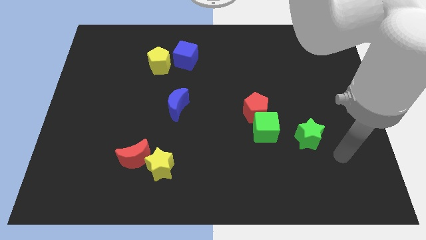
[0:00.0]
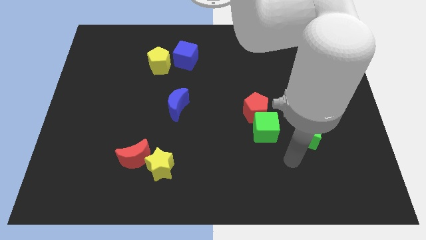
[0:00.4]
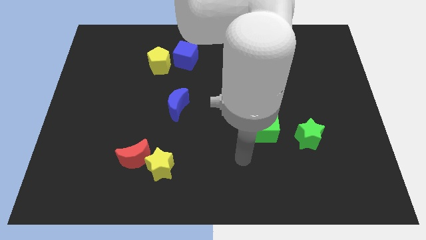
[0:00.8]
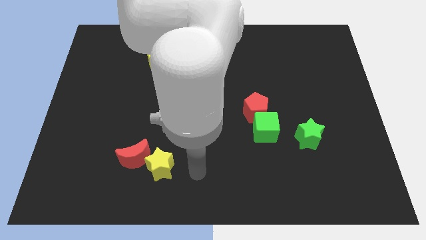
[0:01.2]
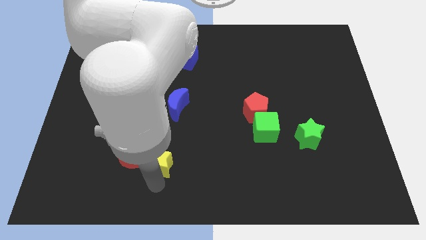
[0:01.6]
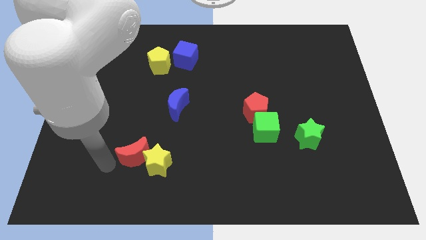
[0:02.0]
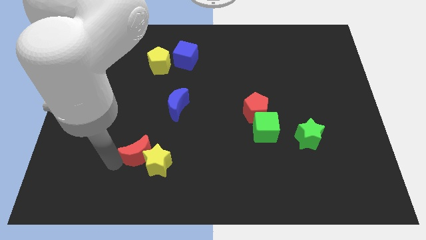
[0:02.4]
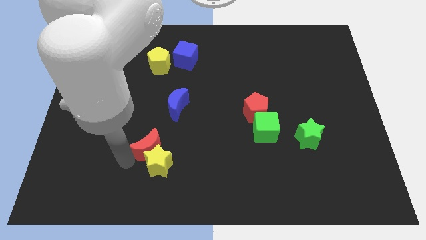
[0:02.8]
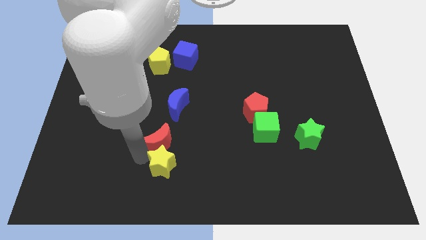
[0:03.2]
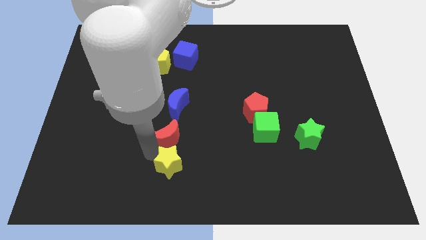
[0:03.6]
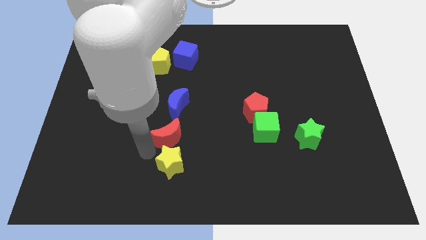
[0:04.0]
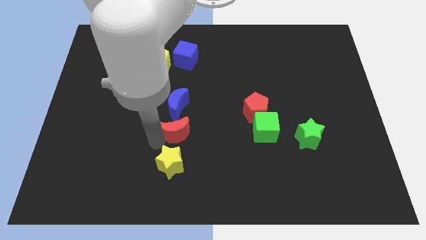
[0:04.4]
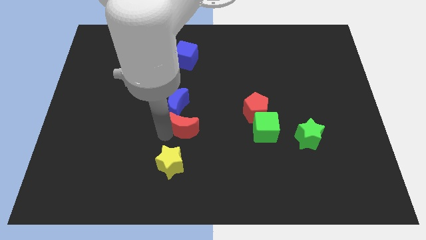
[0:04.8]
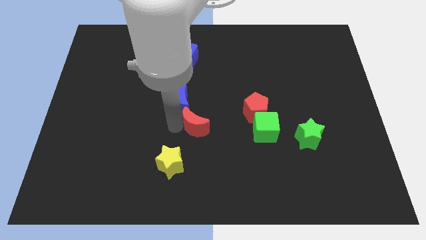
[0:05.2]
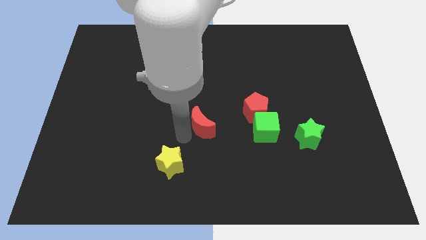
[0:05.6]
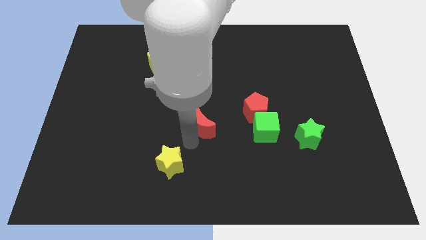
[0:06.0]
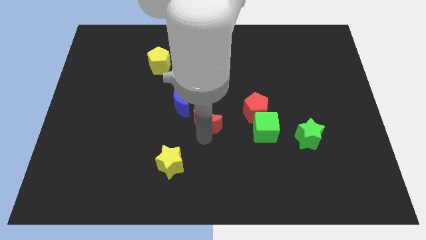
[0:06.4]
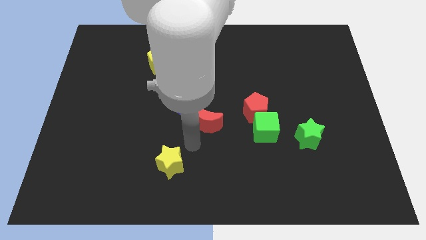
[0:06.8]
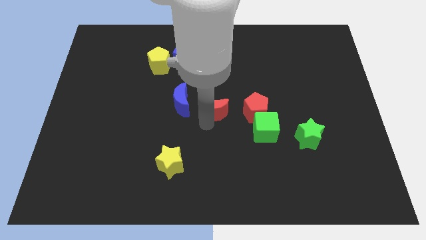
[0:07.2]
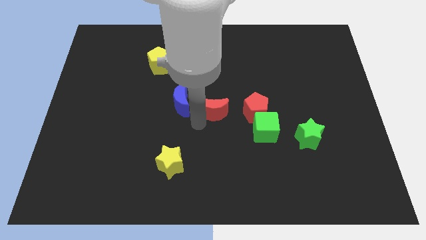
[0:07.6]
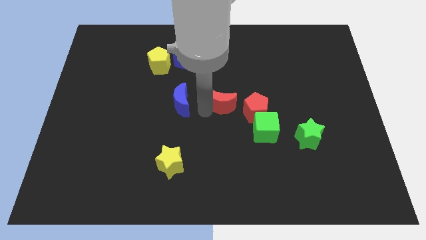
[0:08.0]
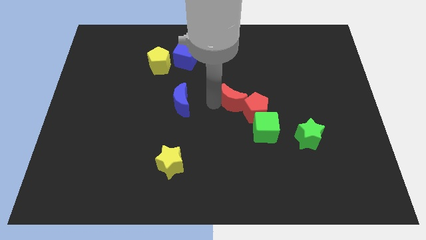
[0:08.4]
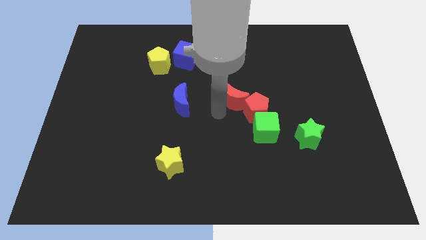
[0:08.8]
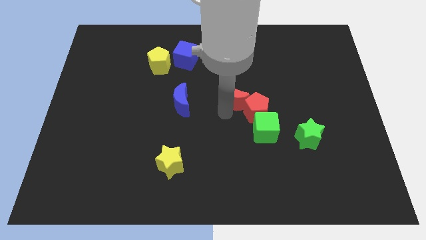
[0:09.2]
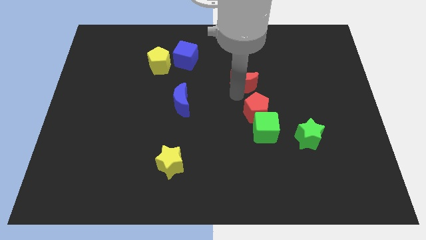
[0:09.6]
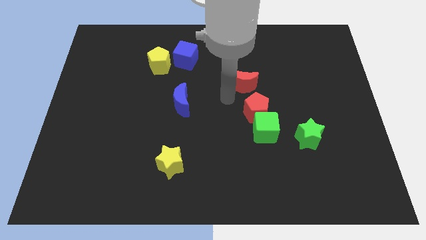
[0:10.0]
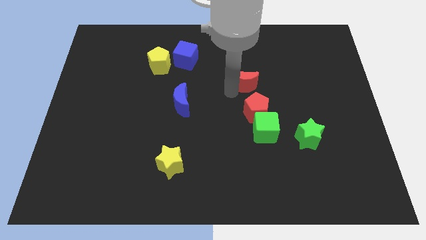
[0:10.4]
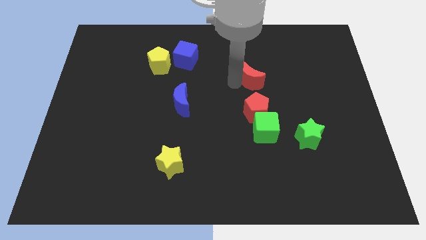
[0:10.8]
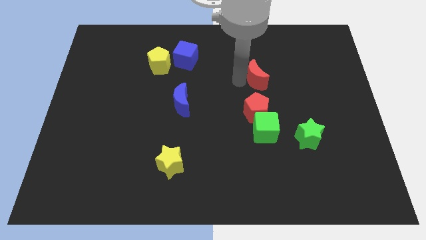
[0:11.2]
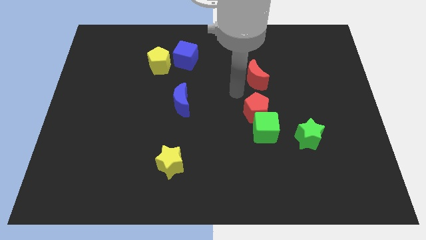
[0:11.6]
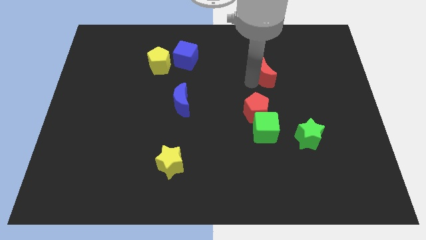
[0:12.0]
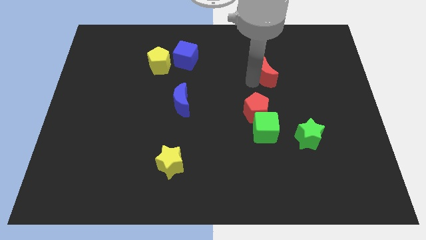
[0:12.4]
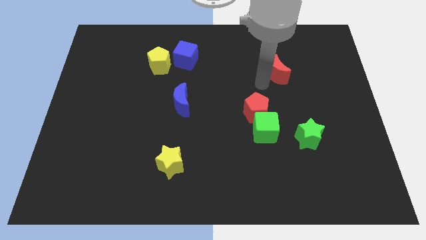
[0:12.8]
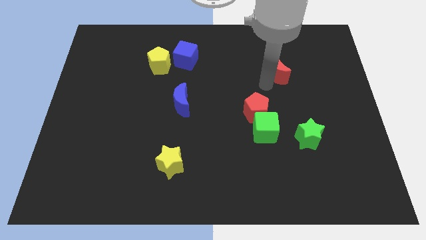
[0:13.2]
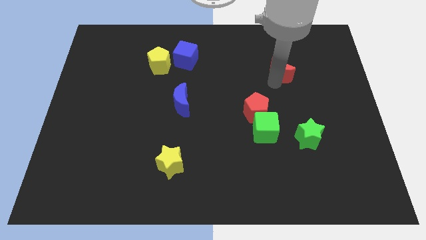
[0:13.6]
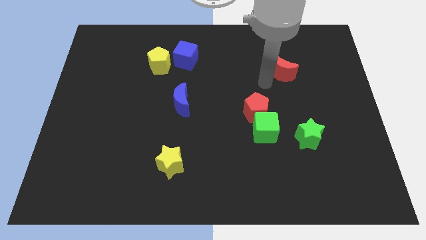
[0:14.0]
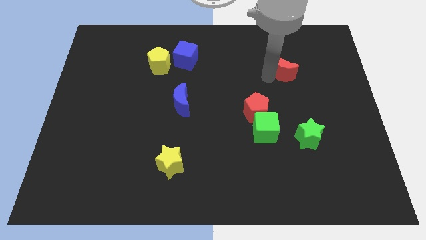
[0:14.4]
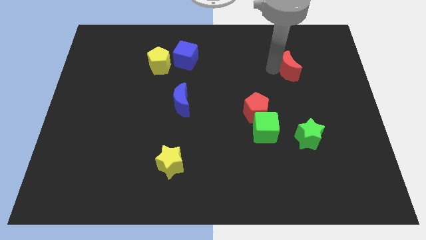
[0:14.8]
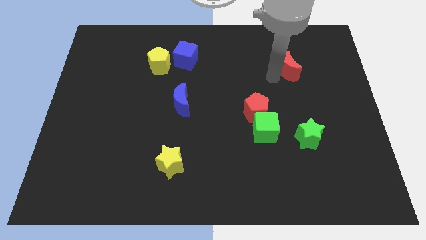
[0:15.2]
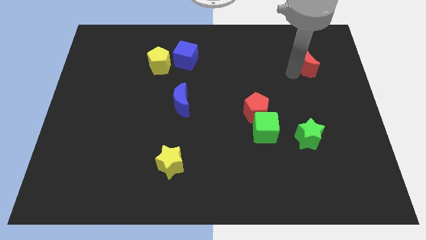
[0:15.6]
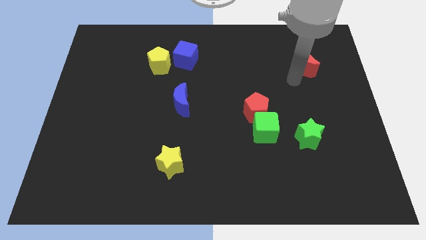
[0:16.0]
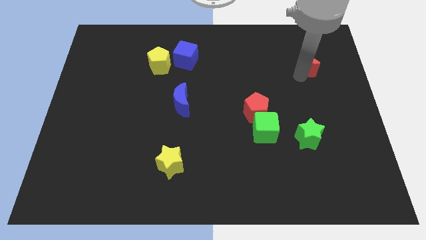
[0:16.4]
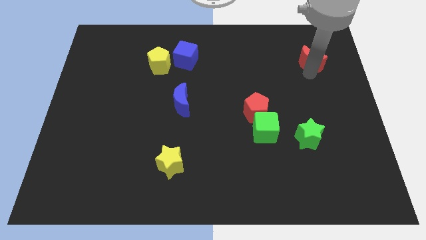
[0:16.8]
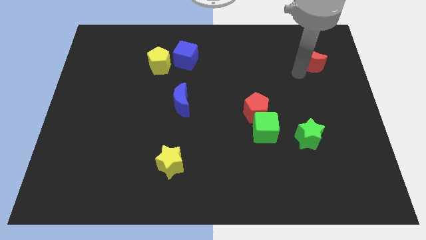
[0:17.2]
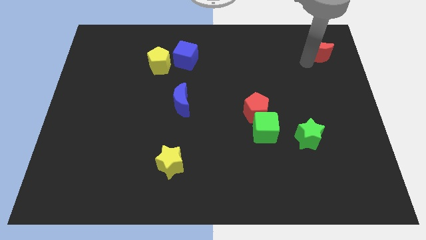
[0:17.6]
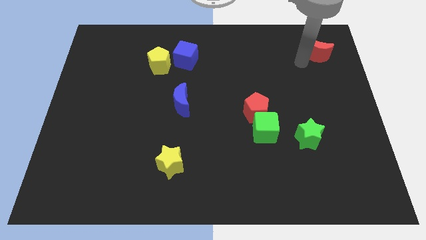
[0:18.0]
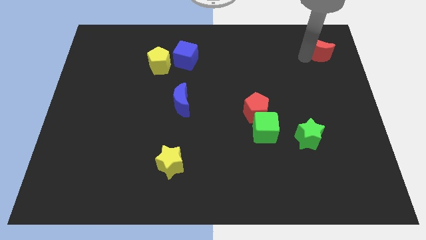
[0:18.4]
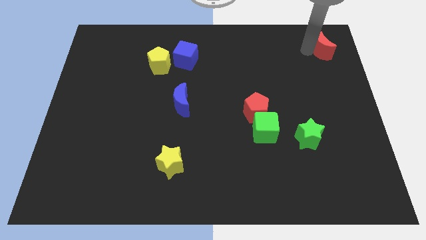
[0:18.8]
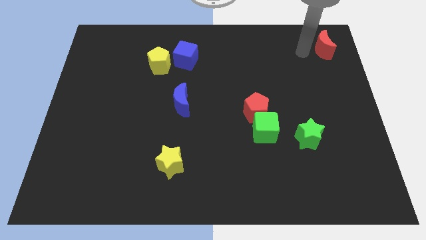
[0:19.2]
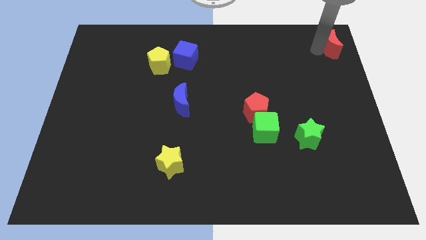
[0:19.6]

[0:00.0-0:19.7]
slide the red moon to the top right

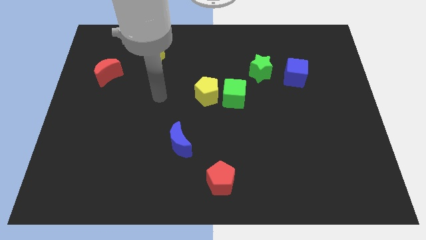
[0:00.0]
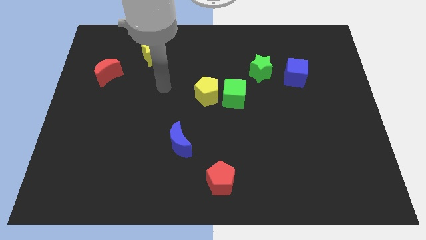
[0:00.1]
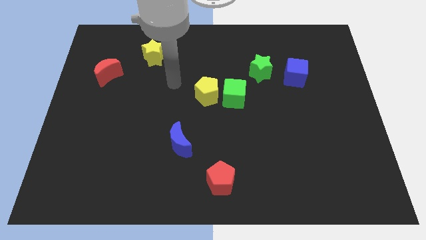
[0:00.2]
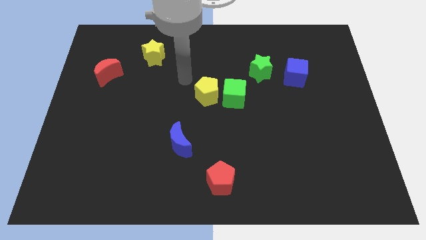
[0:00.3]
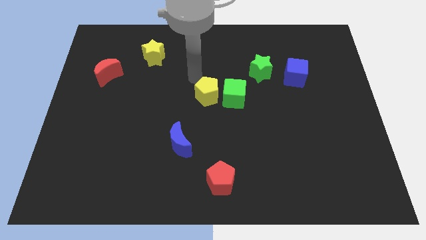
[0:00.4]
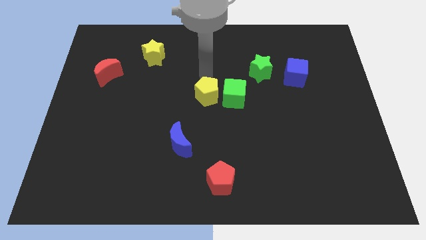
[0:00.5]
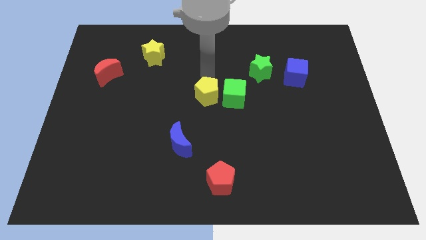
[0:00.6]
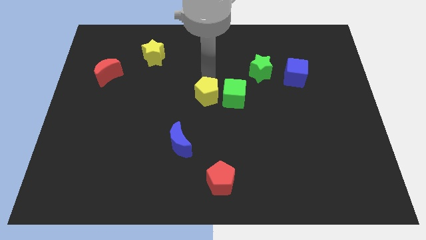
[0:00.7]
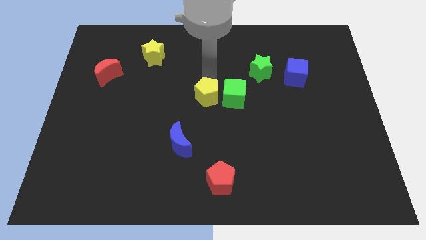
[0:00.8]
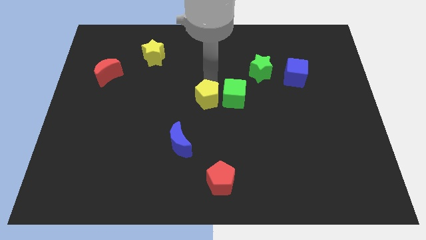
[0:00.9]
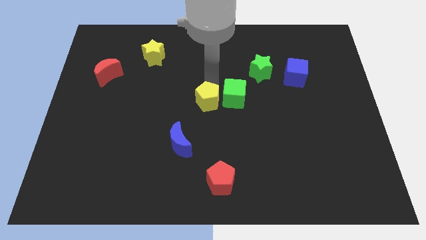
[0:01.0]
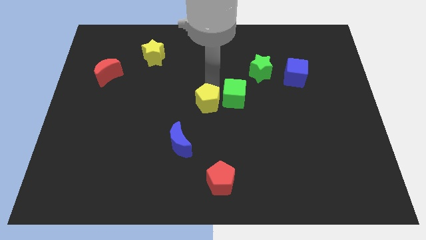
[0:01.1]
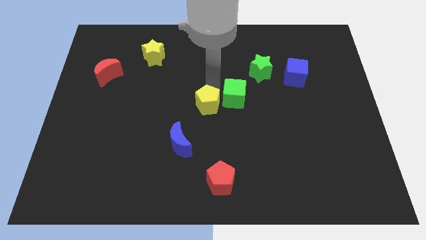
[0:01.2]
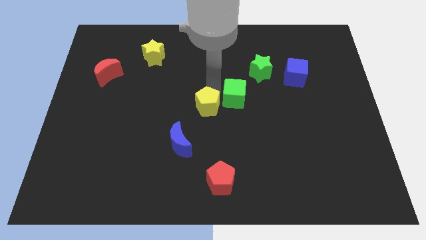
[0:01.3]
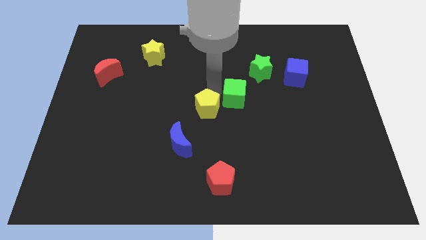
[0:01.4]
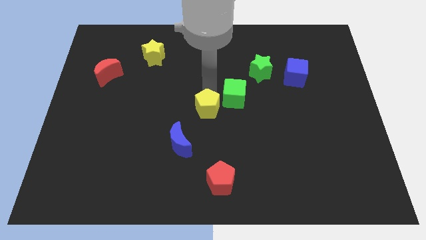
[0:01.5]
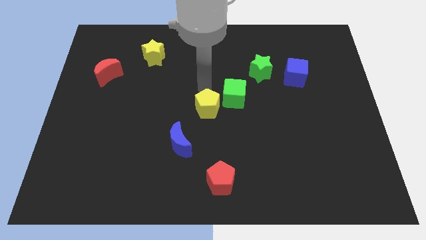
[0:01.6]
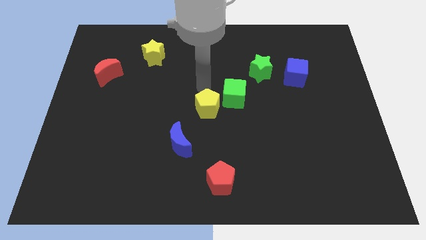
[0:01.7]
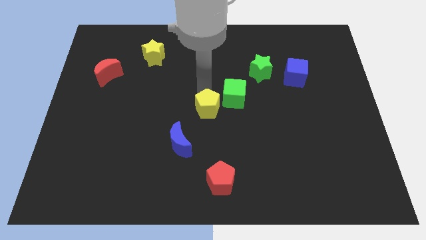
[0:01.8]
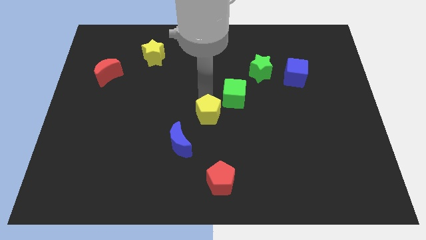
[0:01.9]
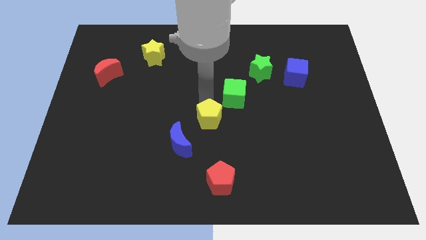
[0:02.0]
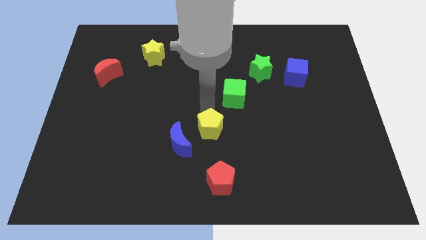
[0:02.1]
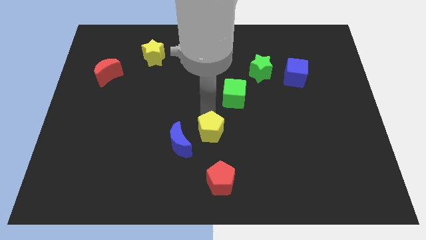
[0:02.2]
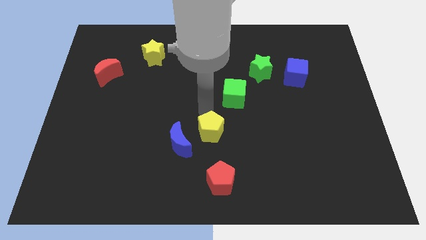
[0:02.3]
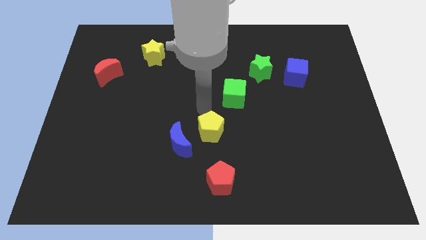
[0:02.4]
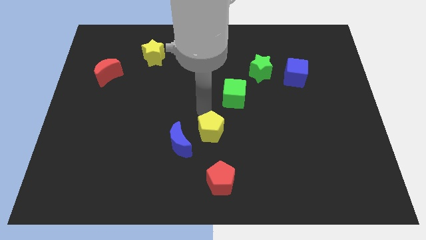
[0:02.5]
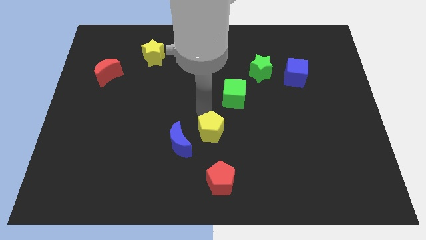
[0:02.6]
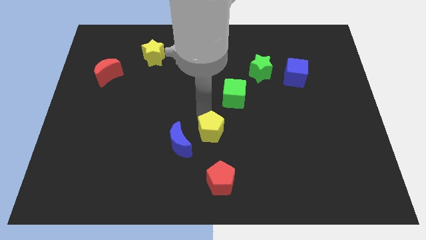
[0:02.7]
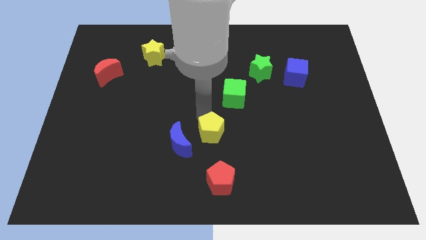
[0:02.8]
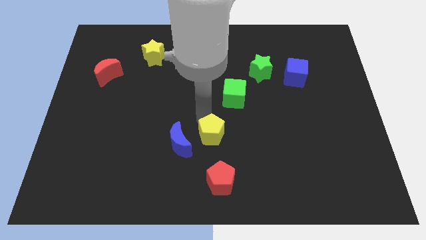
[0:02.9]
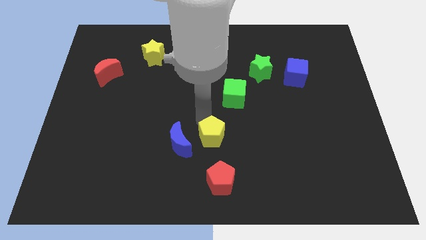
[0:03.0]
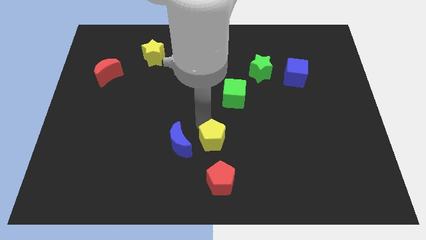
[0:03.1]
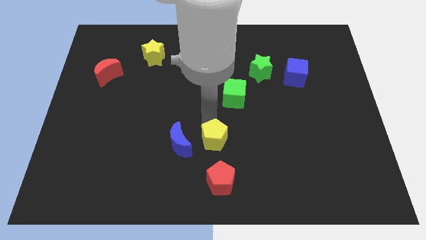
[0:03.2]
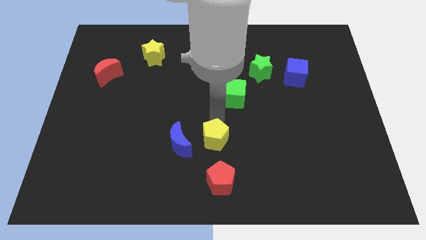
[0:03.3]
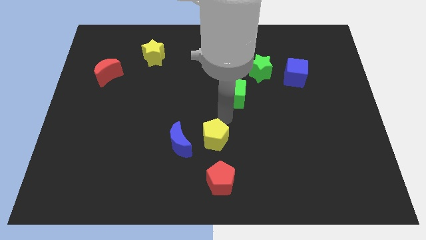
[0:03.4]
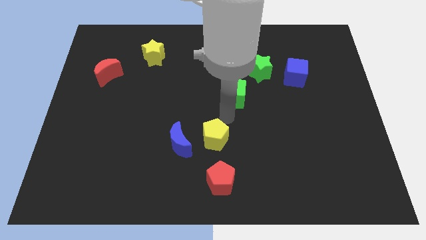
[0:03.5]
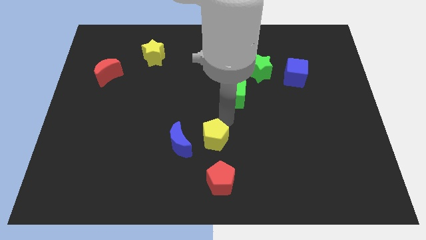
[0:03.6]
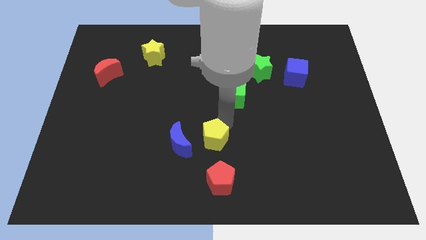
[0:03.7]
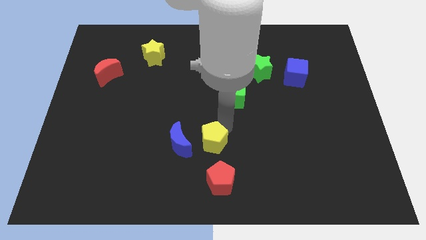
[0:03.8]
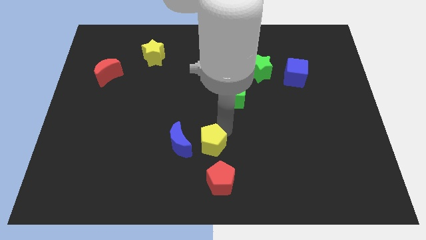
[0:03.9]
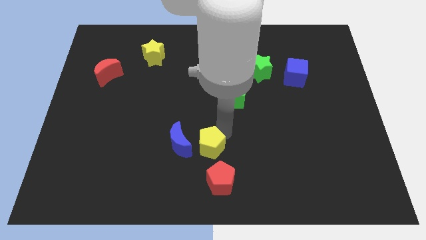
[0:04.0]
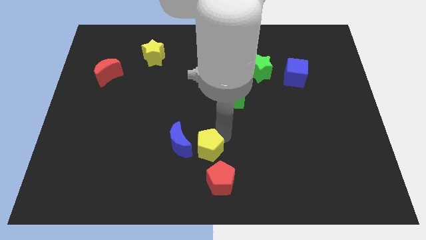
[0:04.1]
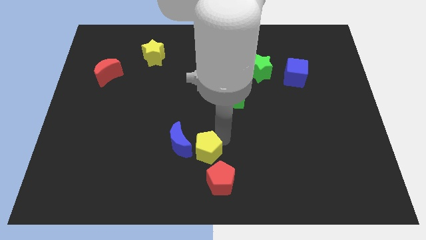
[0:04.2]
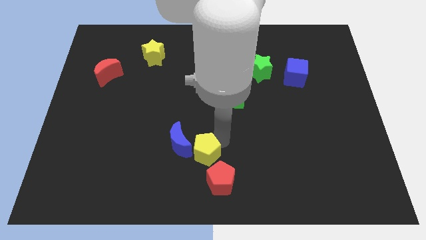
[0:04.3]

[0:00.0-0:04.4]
put the yellow pentagon to the bottom
